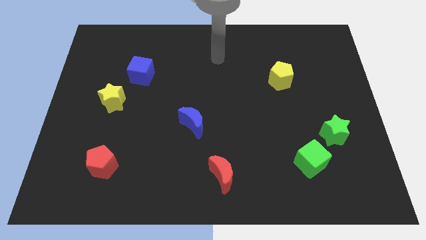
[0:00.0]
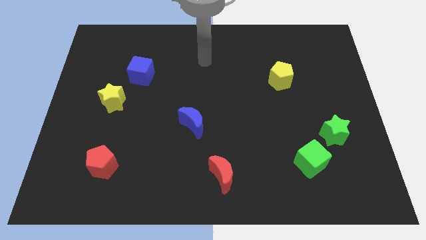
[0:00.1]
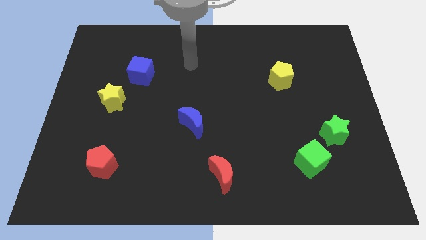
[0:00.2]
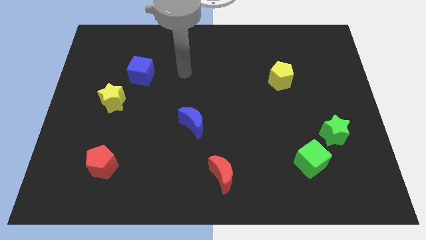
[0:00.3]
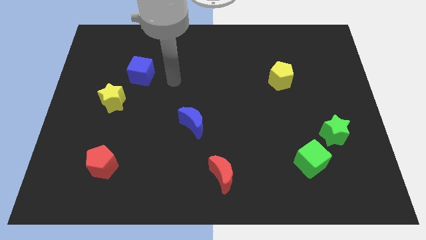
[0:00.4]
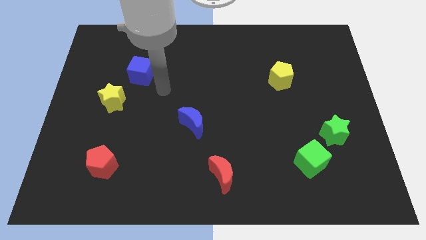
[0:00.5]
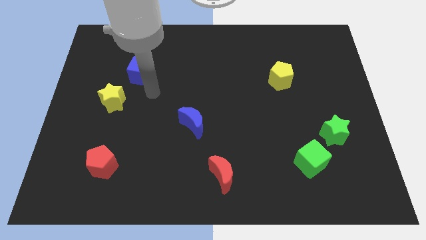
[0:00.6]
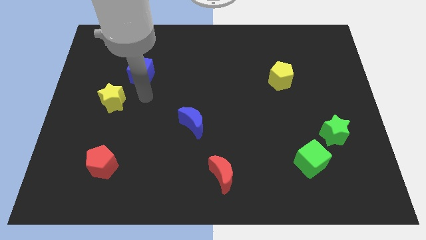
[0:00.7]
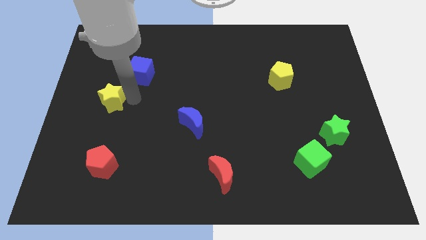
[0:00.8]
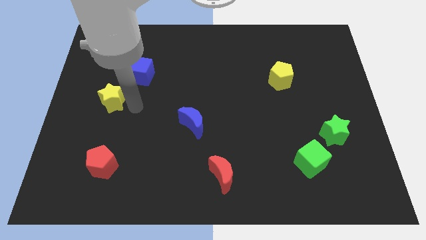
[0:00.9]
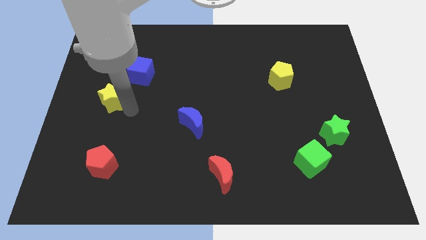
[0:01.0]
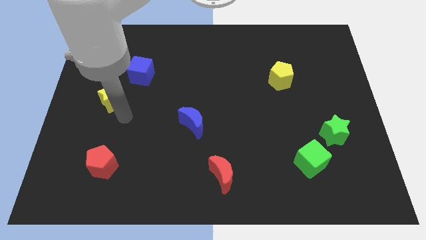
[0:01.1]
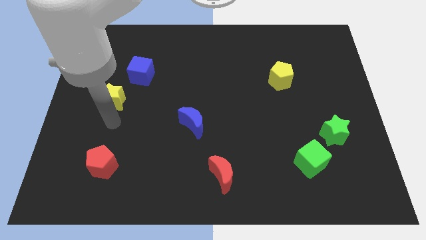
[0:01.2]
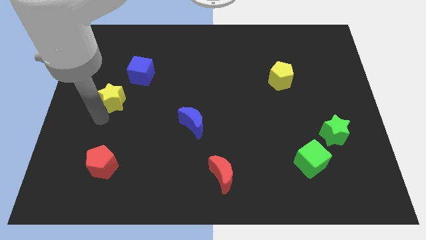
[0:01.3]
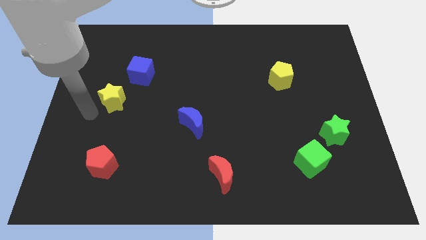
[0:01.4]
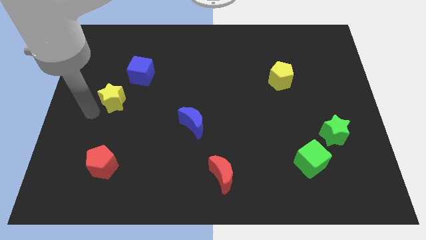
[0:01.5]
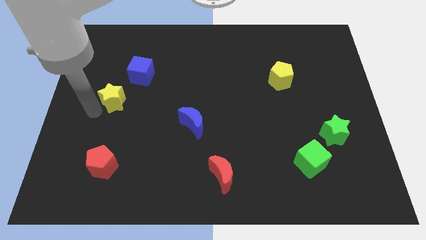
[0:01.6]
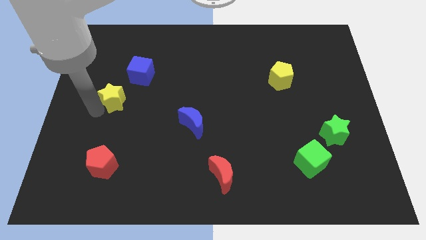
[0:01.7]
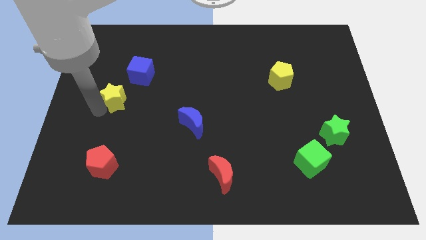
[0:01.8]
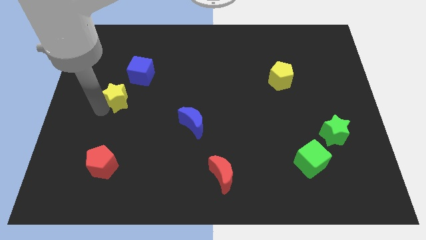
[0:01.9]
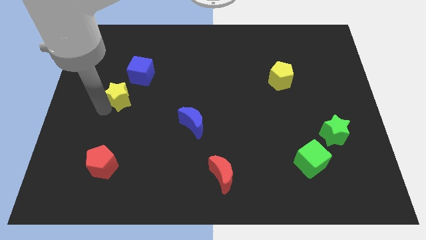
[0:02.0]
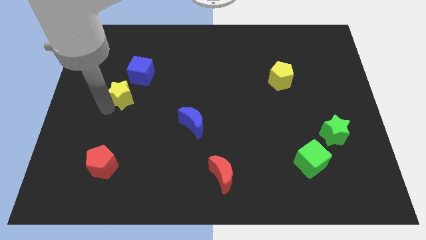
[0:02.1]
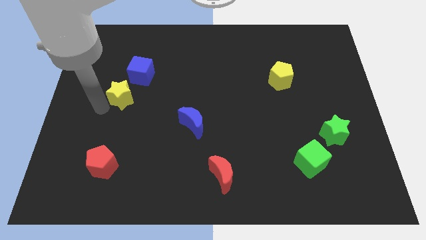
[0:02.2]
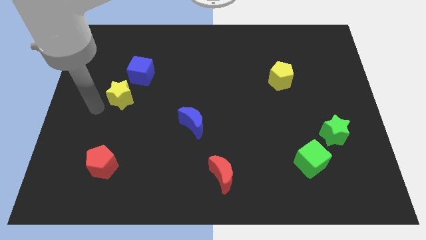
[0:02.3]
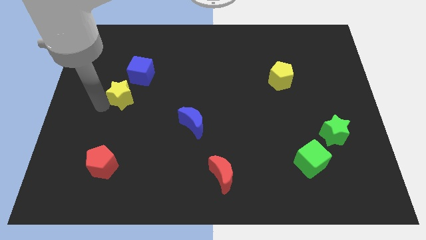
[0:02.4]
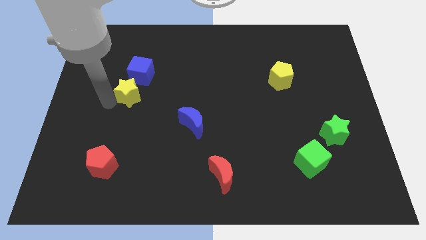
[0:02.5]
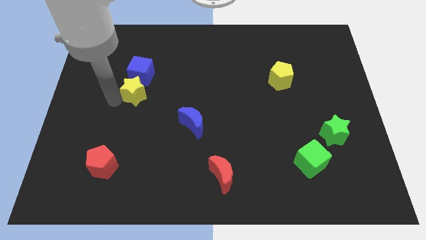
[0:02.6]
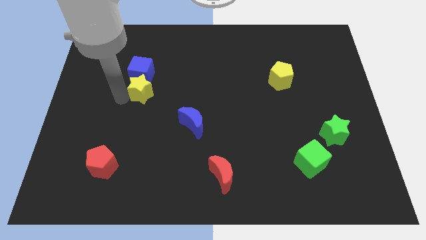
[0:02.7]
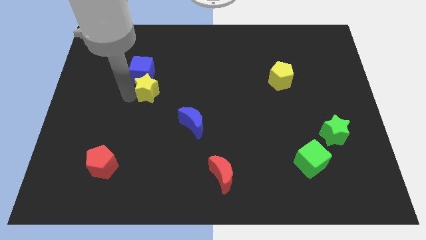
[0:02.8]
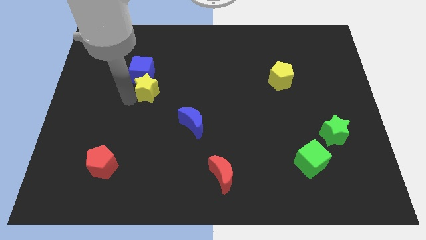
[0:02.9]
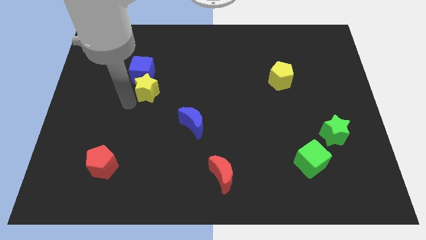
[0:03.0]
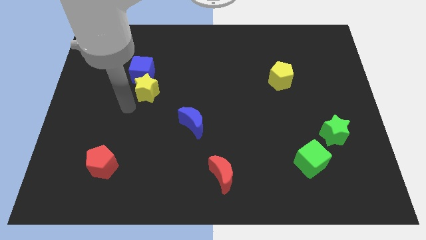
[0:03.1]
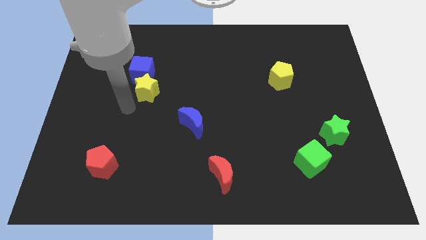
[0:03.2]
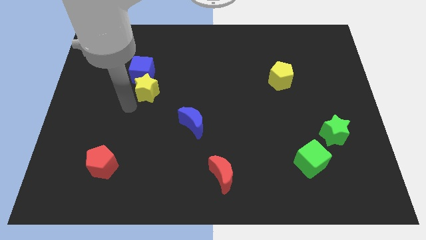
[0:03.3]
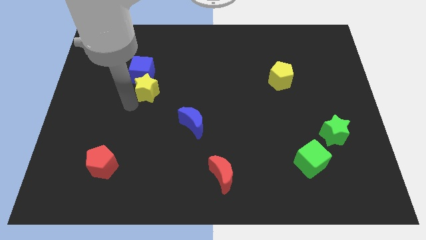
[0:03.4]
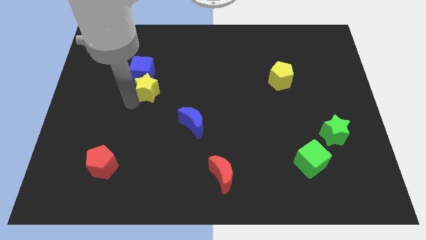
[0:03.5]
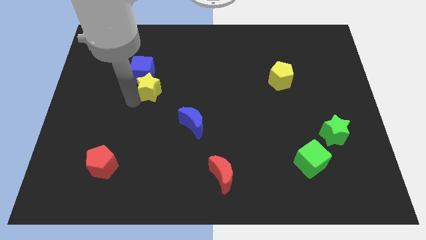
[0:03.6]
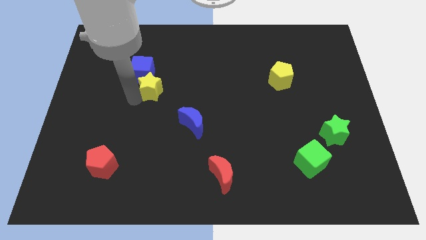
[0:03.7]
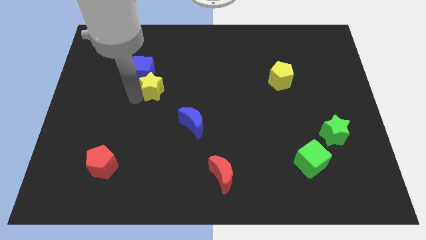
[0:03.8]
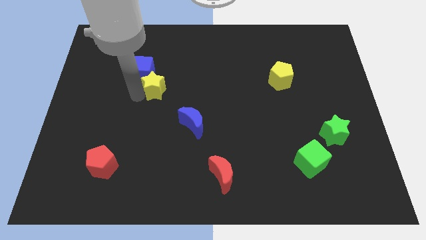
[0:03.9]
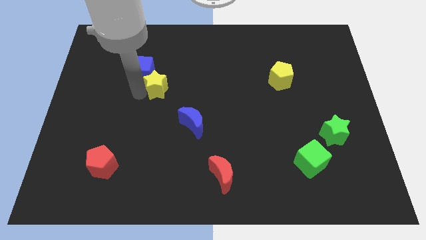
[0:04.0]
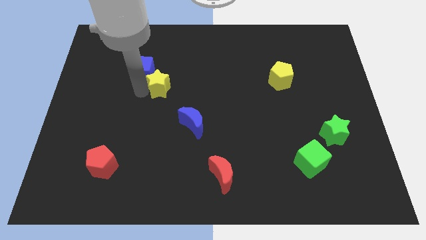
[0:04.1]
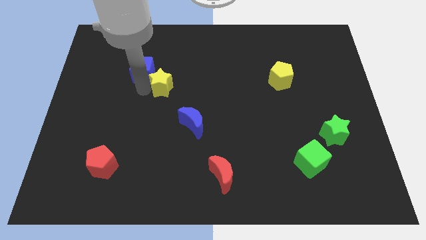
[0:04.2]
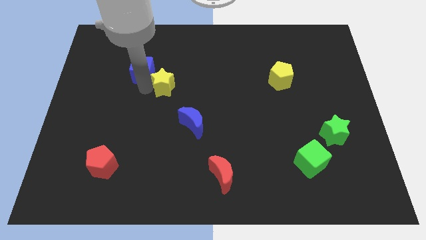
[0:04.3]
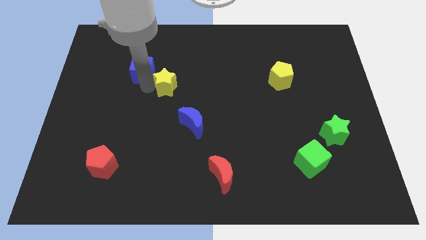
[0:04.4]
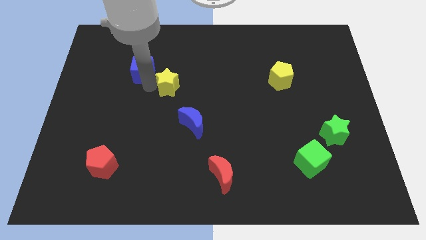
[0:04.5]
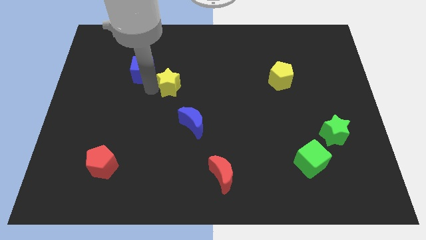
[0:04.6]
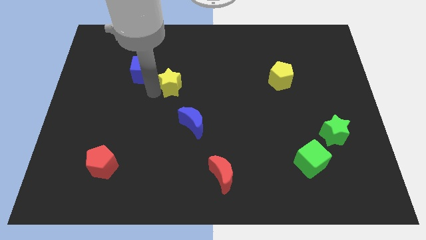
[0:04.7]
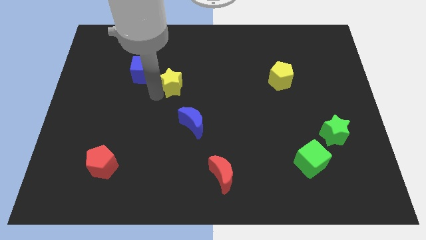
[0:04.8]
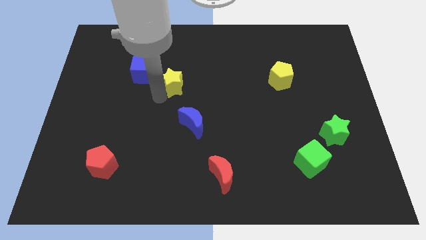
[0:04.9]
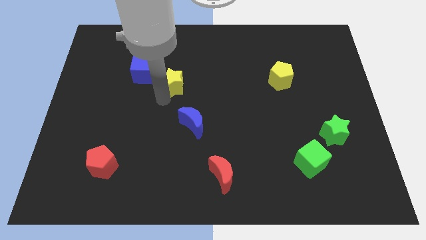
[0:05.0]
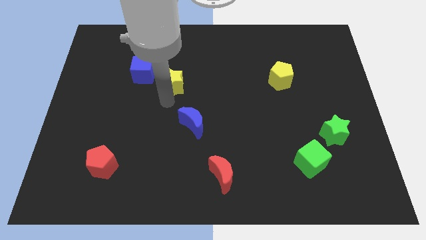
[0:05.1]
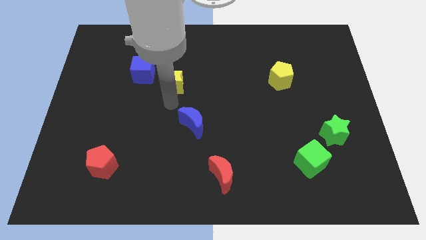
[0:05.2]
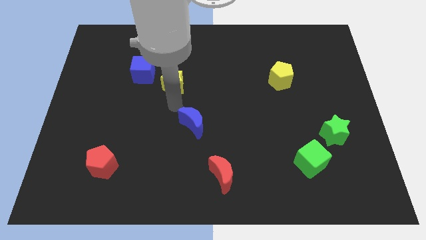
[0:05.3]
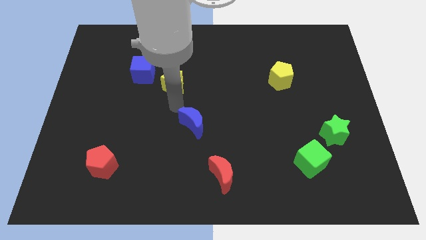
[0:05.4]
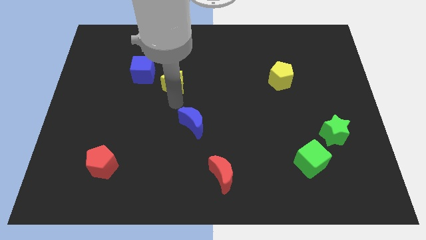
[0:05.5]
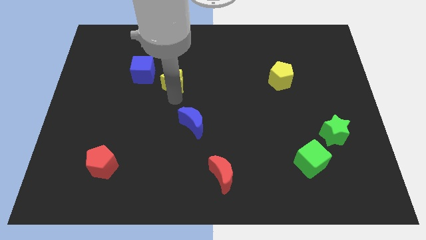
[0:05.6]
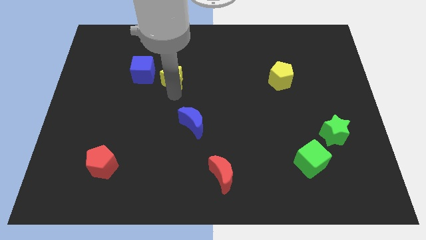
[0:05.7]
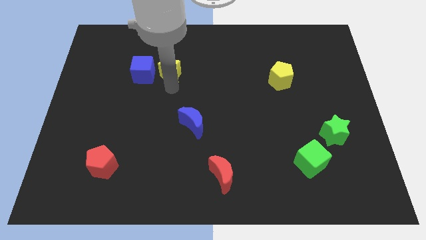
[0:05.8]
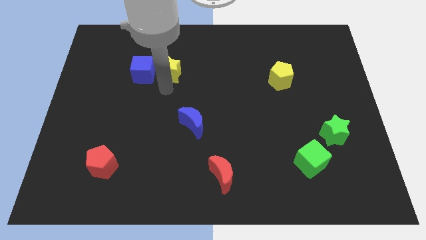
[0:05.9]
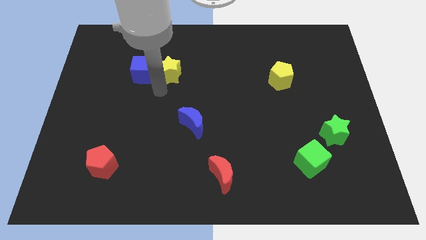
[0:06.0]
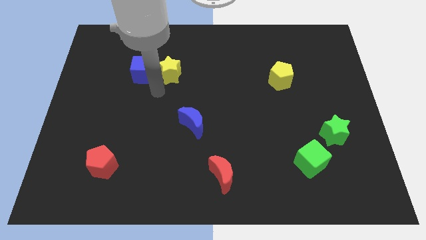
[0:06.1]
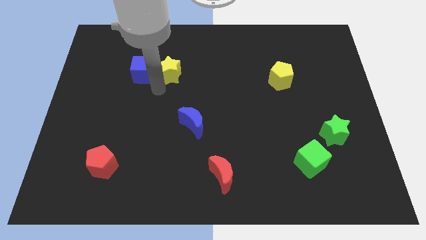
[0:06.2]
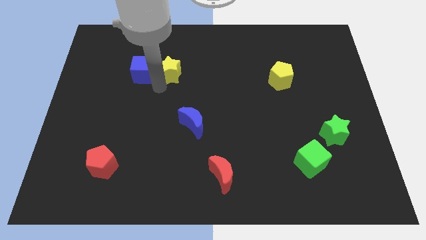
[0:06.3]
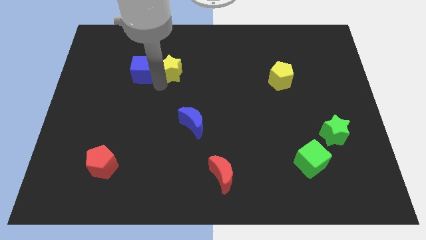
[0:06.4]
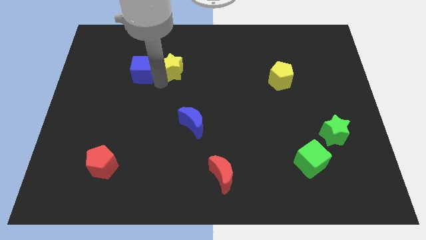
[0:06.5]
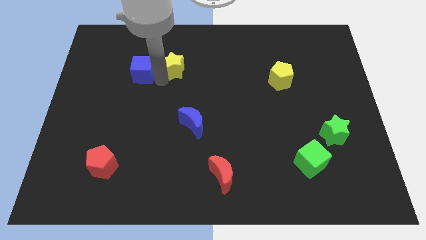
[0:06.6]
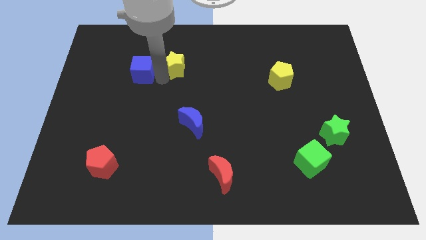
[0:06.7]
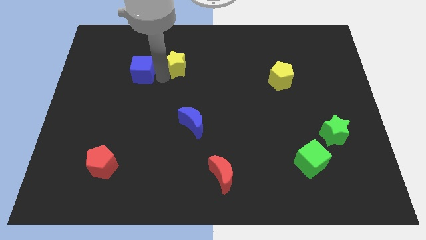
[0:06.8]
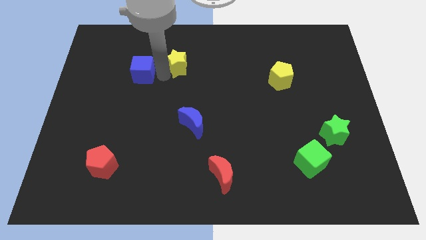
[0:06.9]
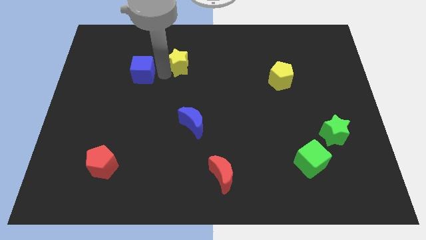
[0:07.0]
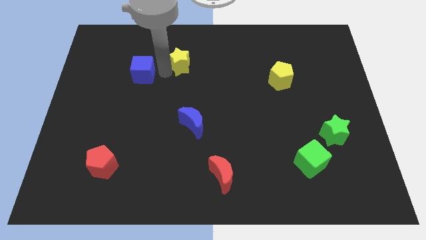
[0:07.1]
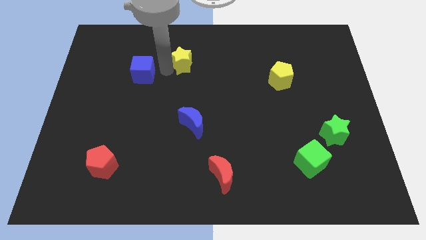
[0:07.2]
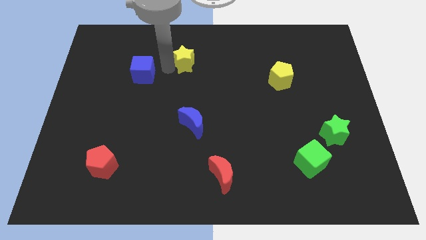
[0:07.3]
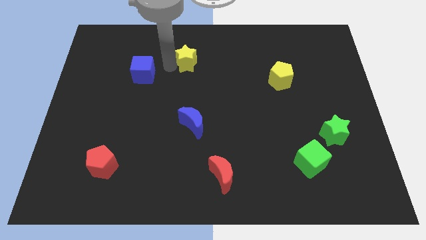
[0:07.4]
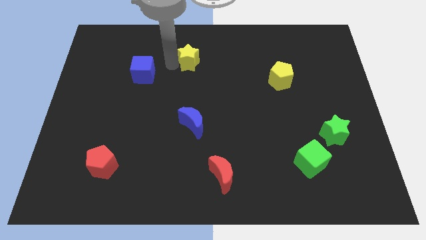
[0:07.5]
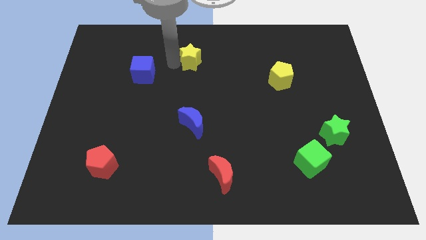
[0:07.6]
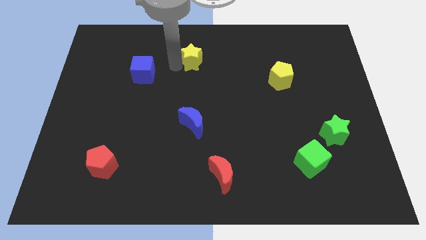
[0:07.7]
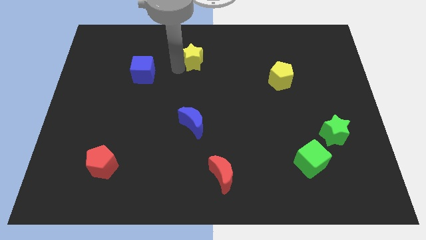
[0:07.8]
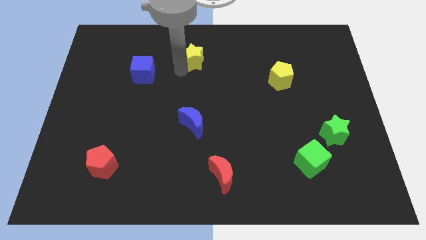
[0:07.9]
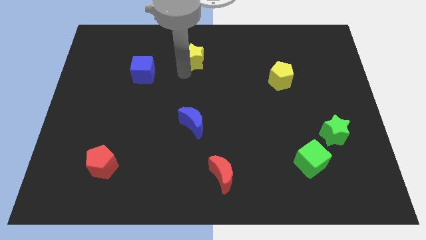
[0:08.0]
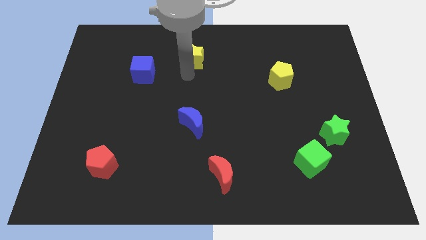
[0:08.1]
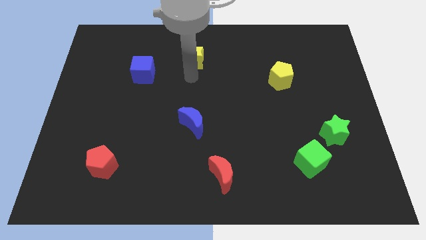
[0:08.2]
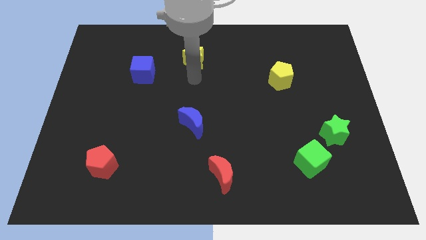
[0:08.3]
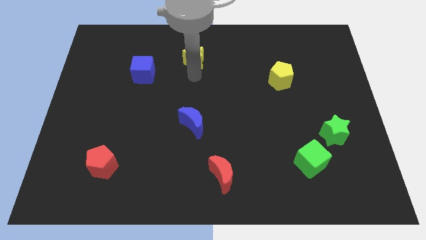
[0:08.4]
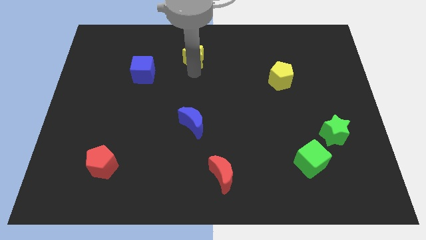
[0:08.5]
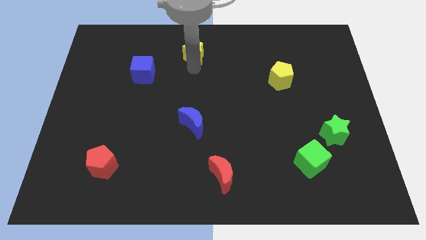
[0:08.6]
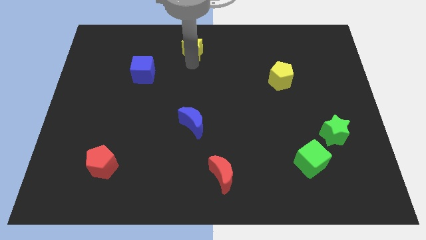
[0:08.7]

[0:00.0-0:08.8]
move the yellow star to the top side
